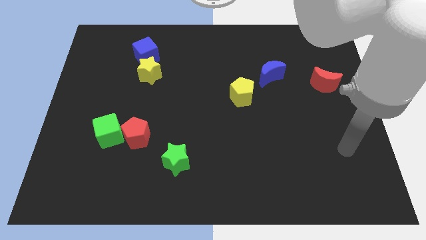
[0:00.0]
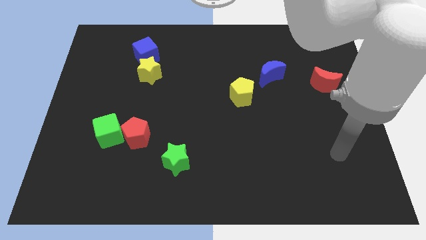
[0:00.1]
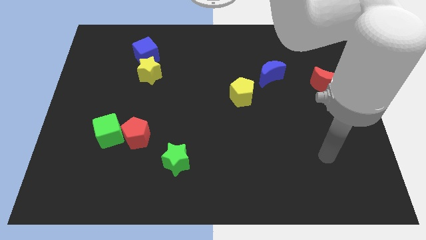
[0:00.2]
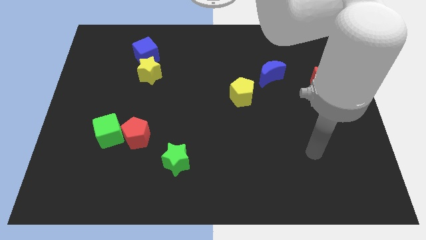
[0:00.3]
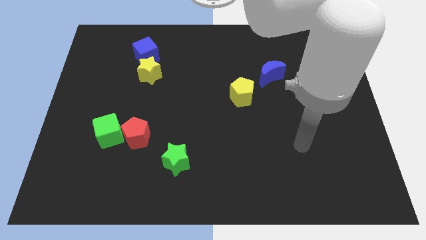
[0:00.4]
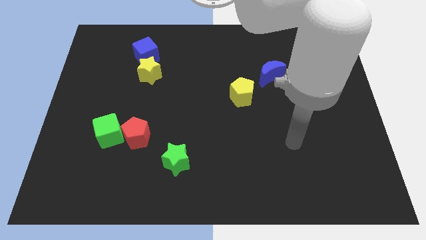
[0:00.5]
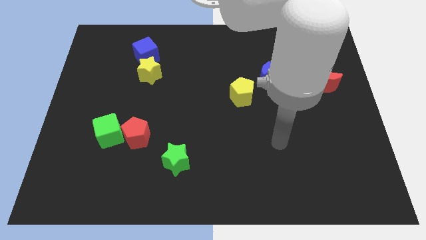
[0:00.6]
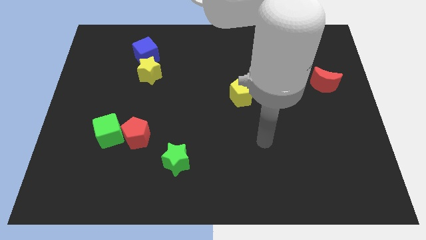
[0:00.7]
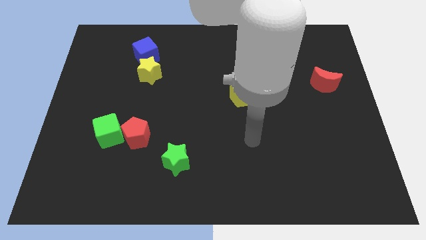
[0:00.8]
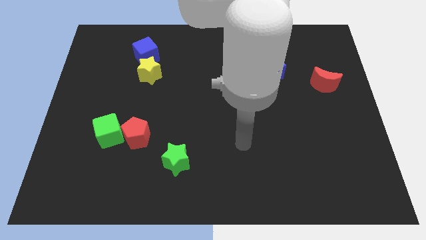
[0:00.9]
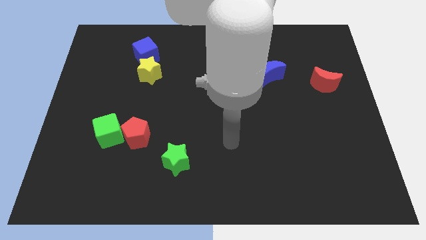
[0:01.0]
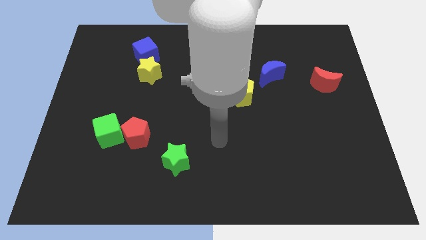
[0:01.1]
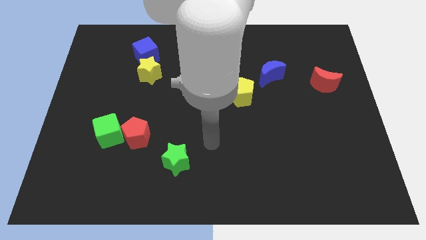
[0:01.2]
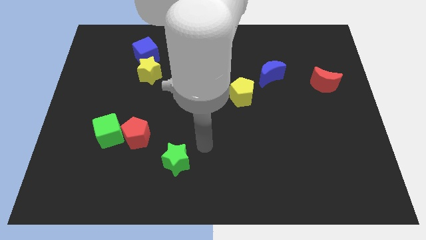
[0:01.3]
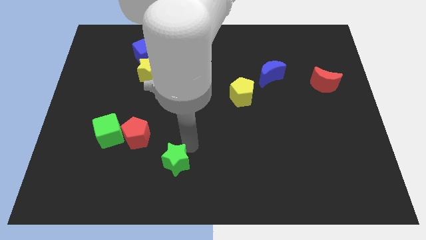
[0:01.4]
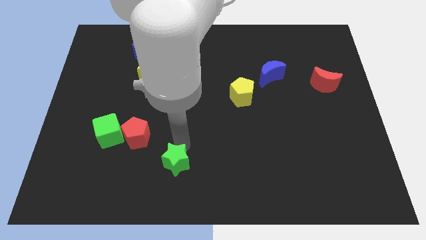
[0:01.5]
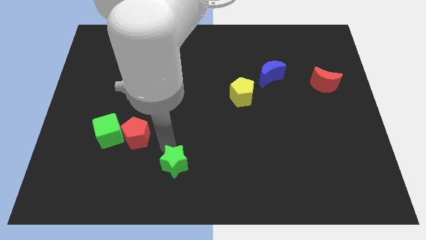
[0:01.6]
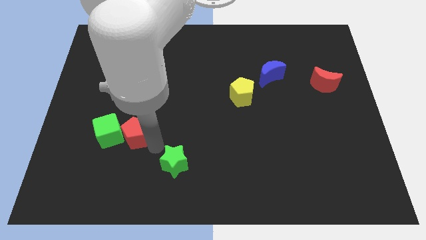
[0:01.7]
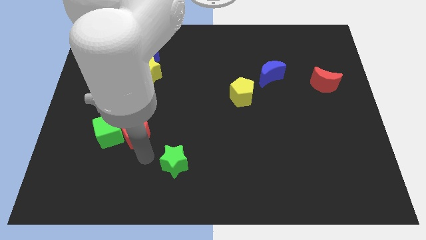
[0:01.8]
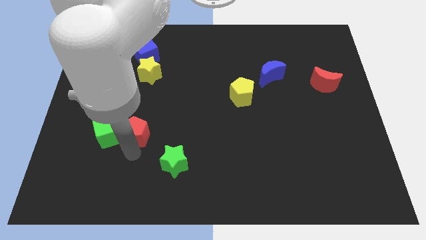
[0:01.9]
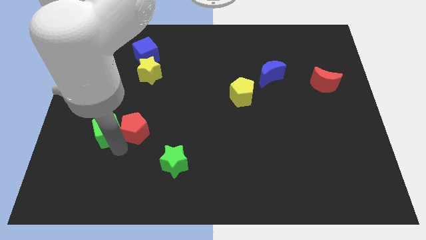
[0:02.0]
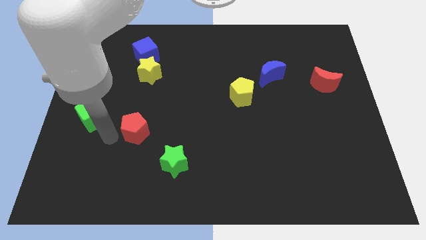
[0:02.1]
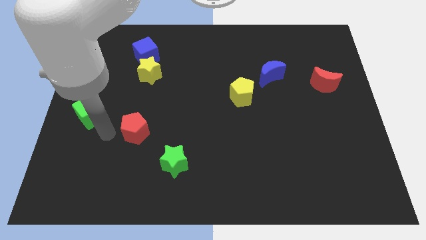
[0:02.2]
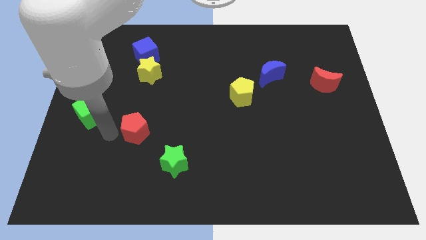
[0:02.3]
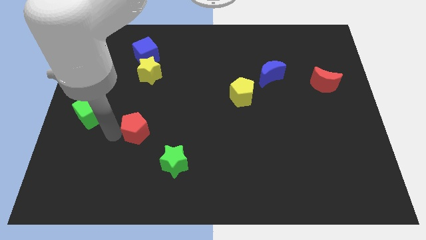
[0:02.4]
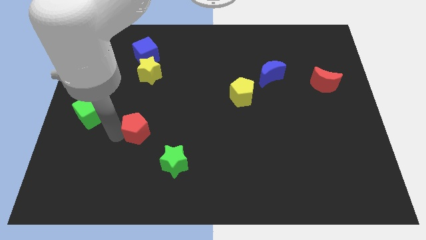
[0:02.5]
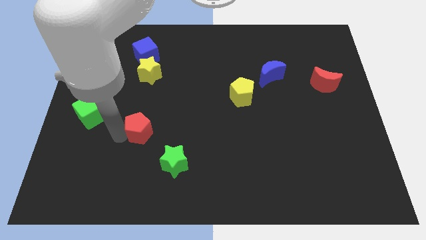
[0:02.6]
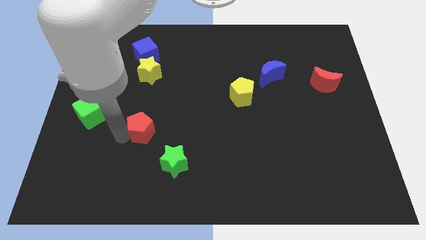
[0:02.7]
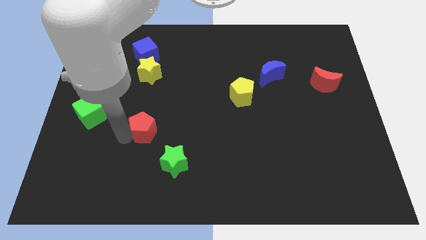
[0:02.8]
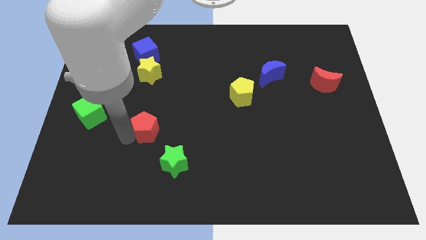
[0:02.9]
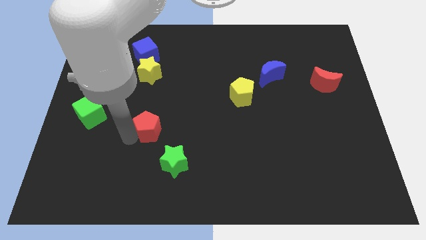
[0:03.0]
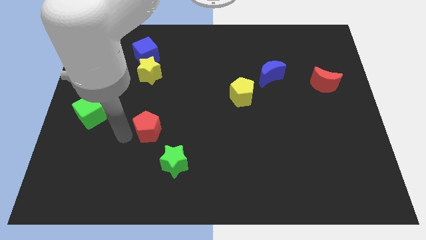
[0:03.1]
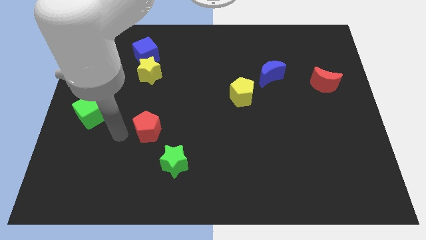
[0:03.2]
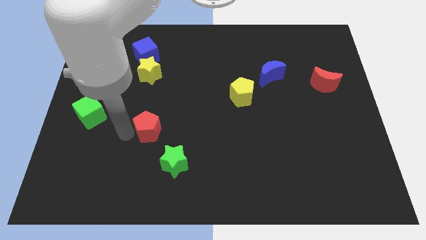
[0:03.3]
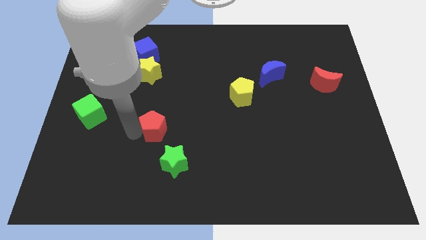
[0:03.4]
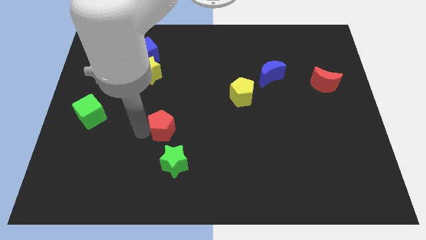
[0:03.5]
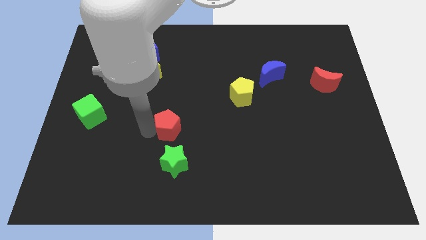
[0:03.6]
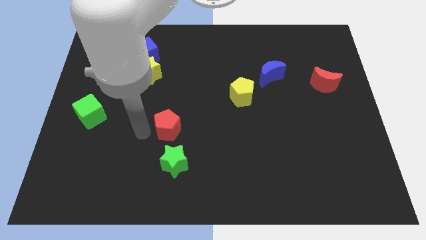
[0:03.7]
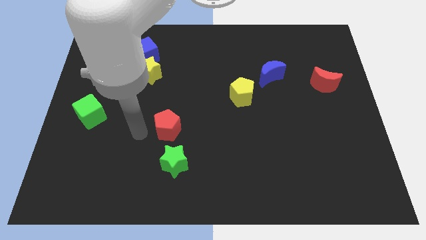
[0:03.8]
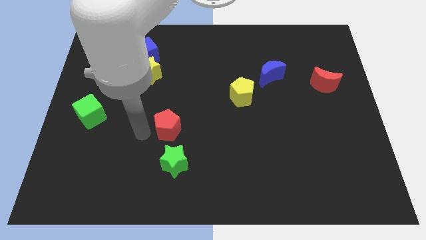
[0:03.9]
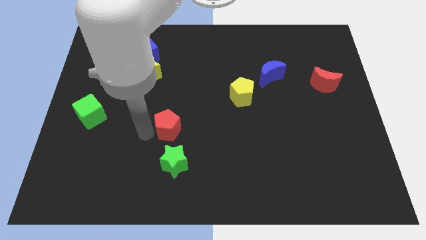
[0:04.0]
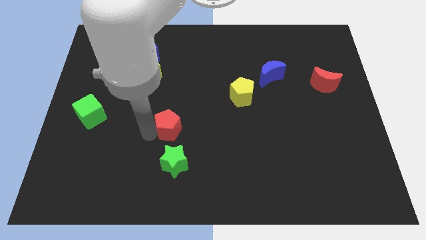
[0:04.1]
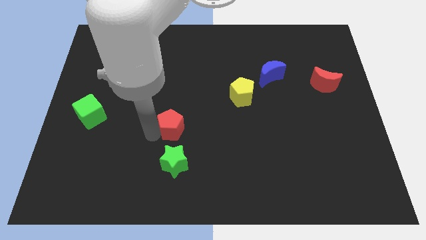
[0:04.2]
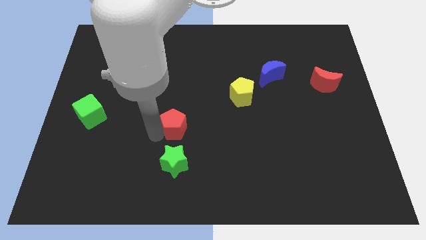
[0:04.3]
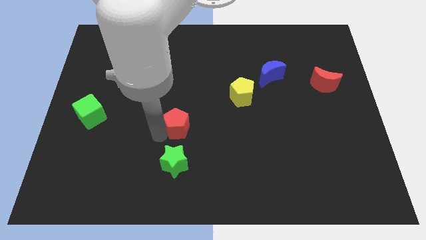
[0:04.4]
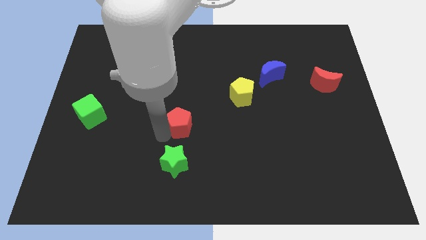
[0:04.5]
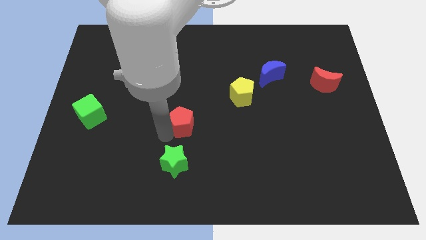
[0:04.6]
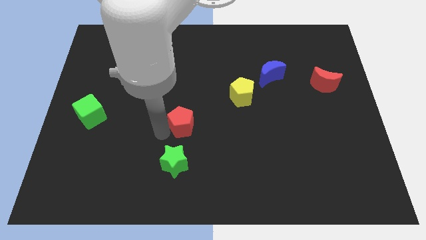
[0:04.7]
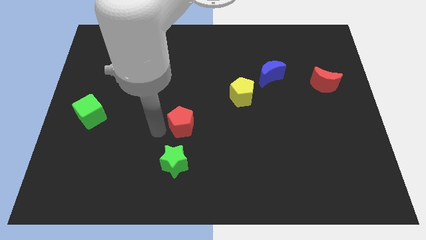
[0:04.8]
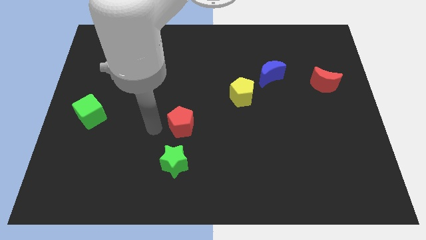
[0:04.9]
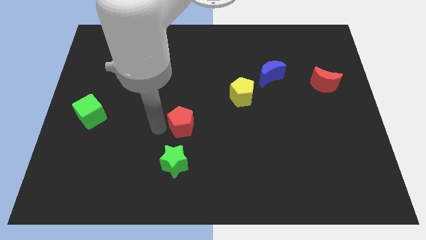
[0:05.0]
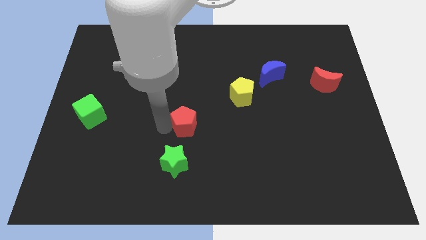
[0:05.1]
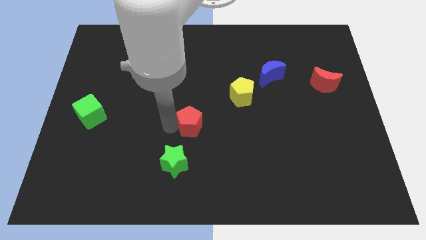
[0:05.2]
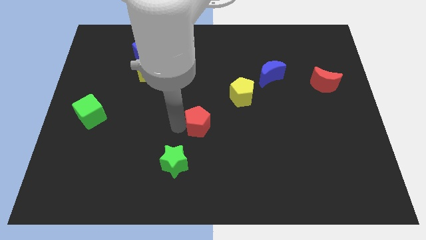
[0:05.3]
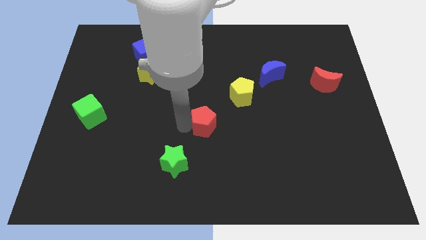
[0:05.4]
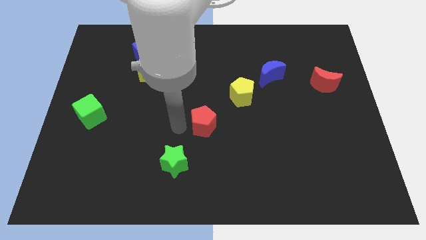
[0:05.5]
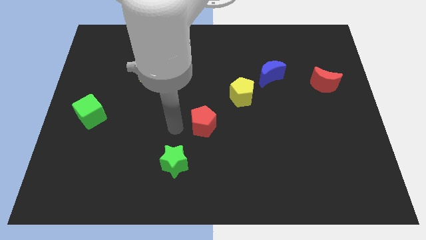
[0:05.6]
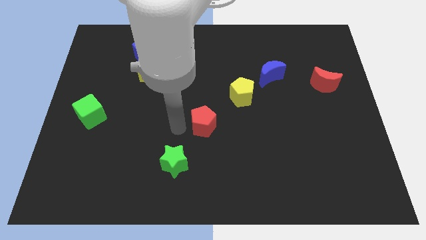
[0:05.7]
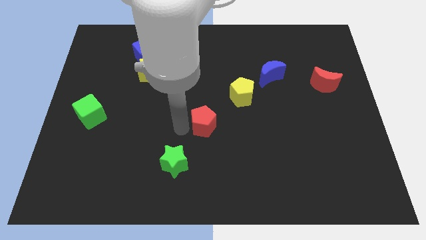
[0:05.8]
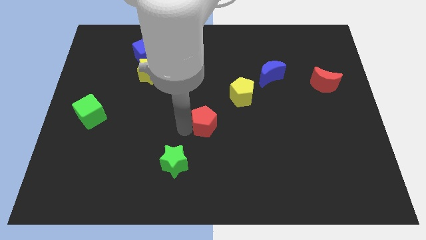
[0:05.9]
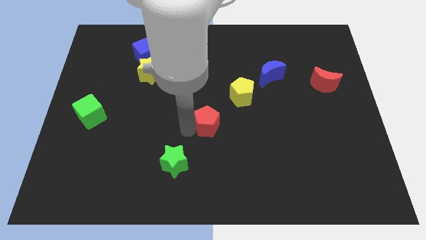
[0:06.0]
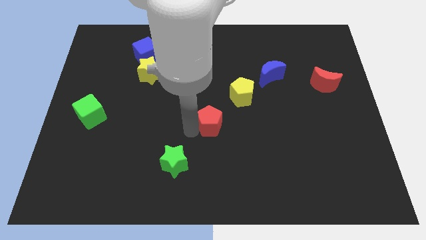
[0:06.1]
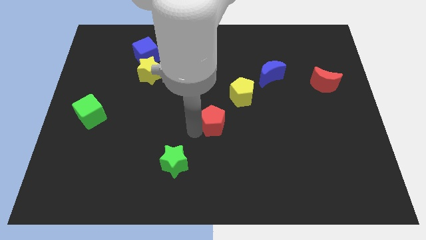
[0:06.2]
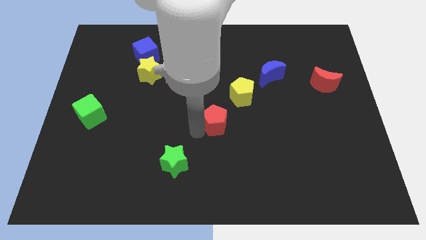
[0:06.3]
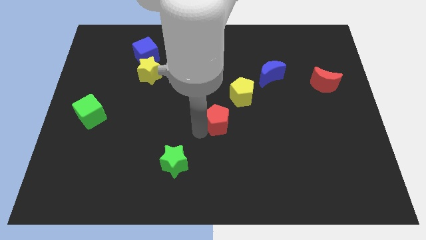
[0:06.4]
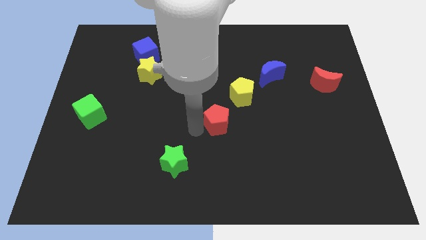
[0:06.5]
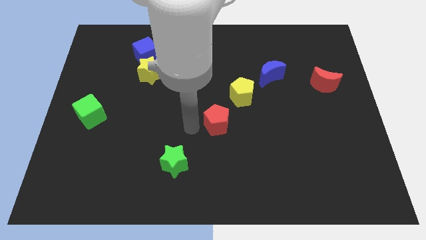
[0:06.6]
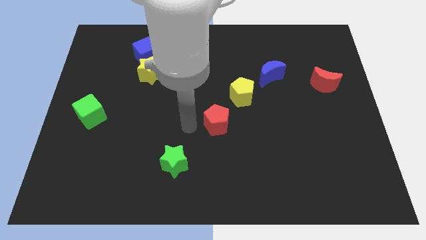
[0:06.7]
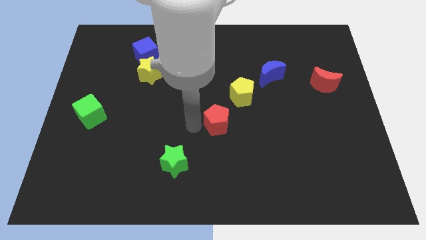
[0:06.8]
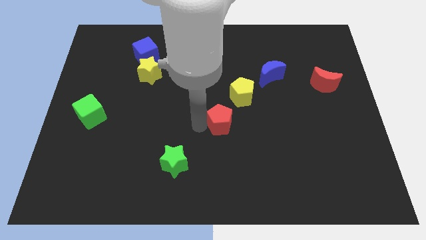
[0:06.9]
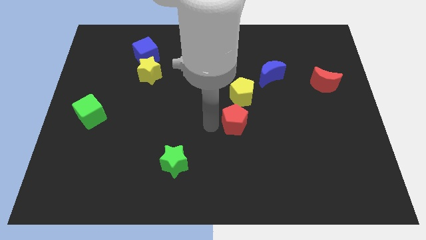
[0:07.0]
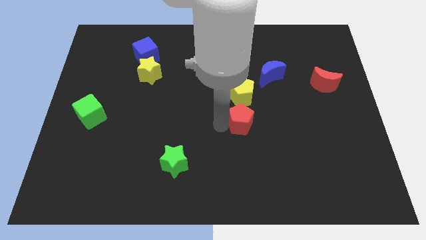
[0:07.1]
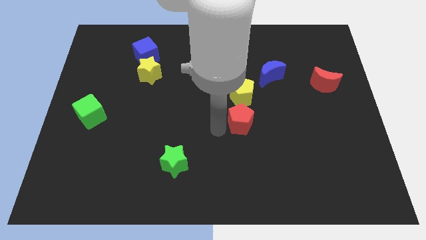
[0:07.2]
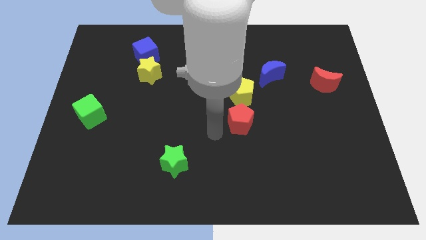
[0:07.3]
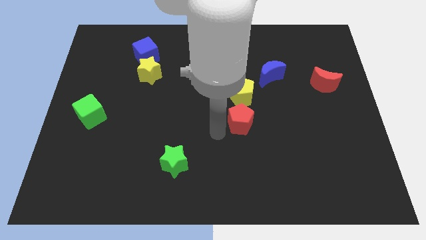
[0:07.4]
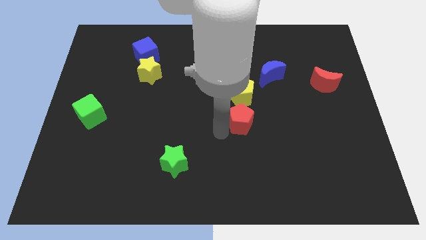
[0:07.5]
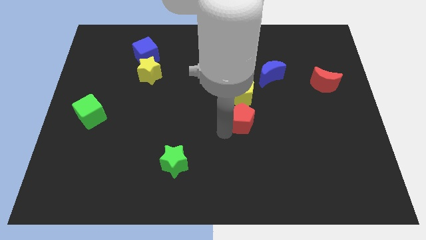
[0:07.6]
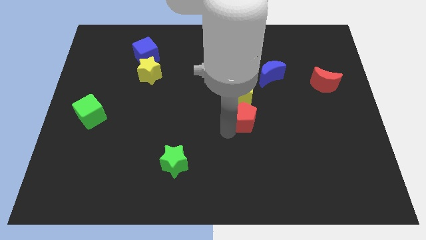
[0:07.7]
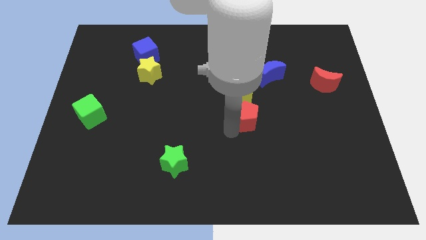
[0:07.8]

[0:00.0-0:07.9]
push the red pentagon to the bottom right side of the yellow pentagon
